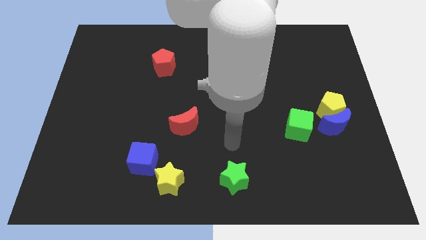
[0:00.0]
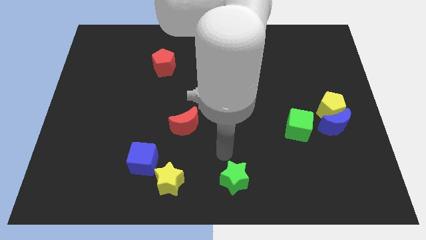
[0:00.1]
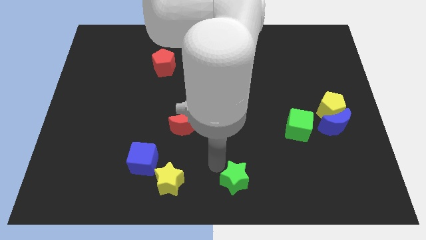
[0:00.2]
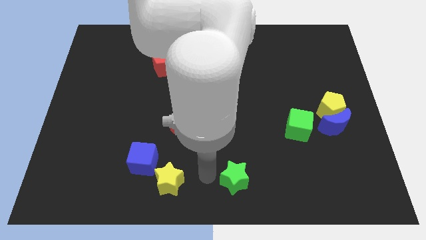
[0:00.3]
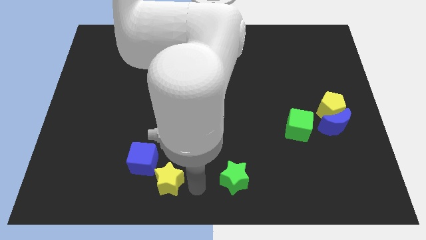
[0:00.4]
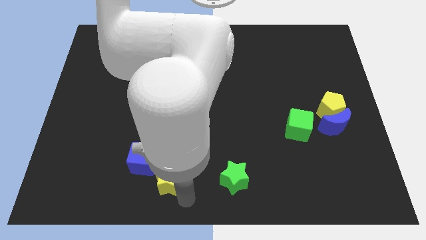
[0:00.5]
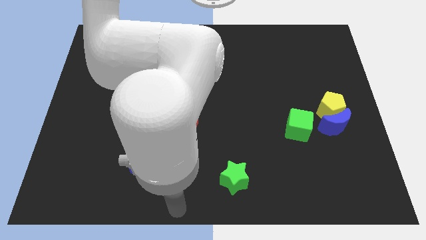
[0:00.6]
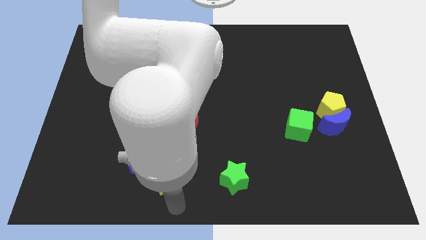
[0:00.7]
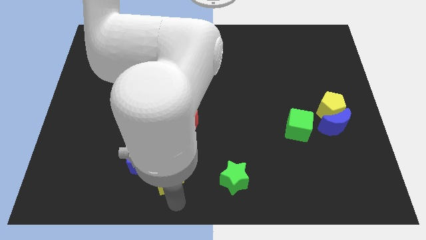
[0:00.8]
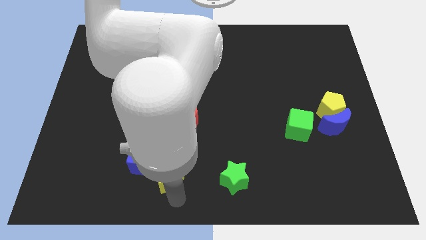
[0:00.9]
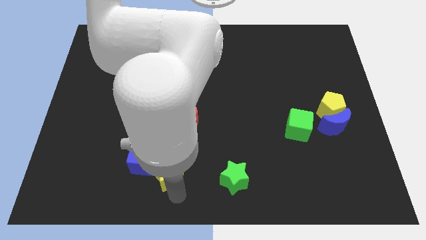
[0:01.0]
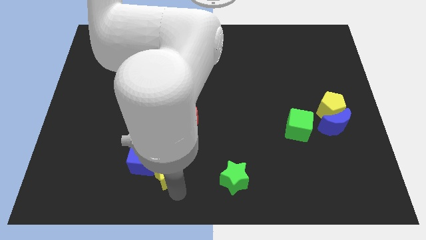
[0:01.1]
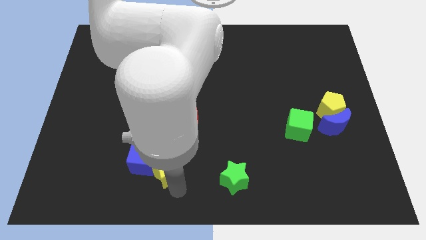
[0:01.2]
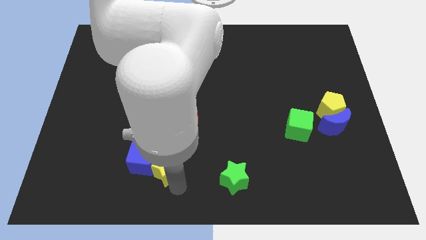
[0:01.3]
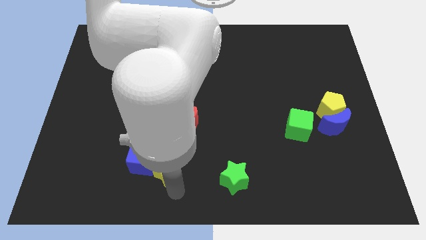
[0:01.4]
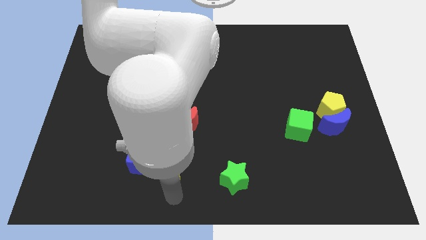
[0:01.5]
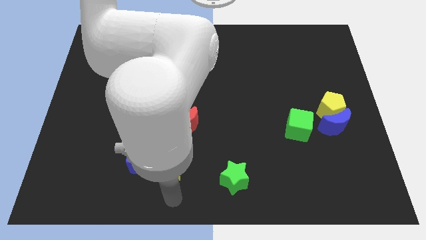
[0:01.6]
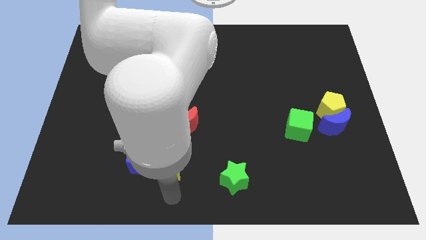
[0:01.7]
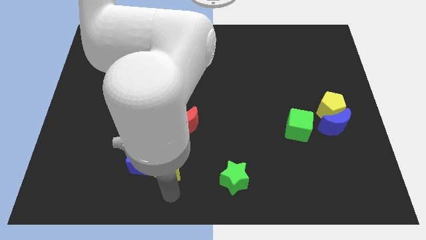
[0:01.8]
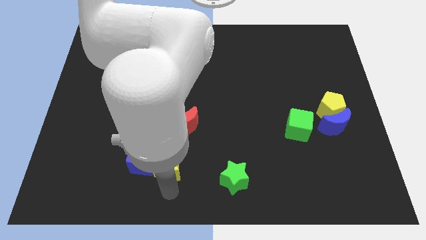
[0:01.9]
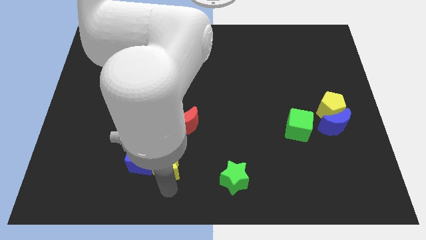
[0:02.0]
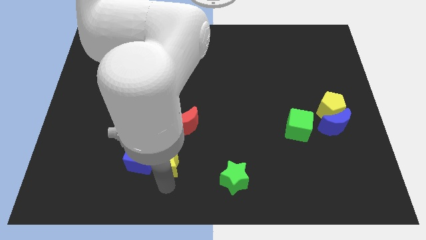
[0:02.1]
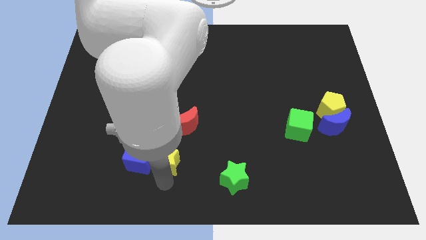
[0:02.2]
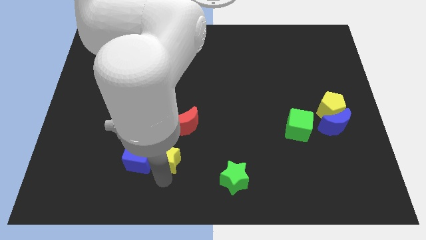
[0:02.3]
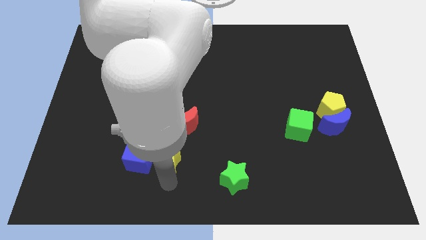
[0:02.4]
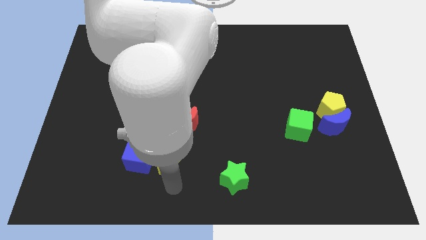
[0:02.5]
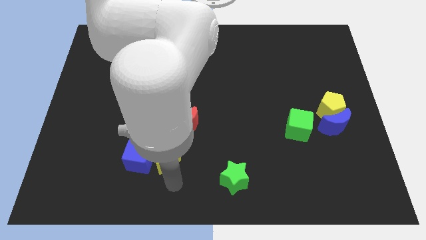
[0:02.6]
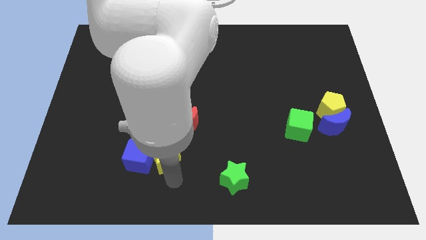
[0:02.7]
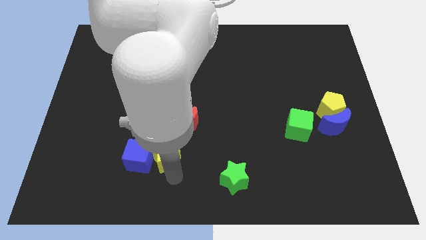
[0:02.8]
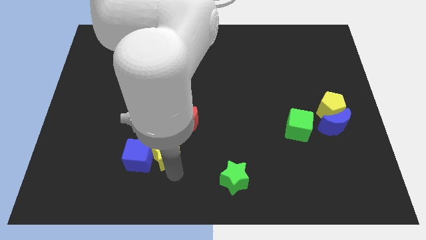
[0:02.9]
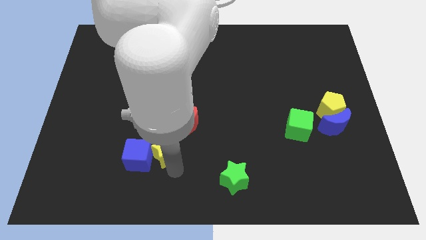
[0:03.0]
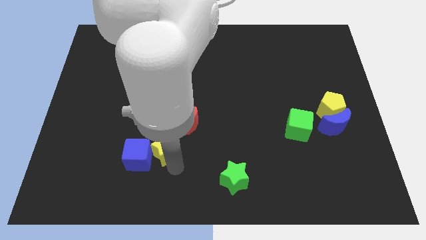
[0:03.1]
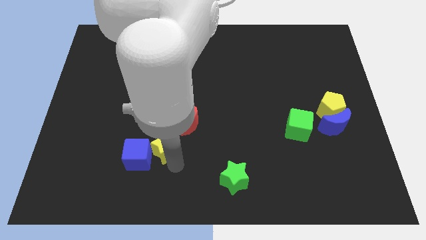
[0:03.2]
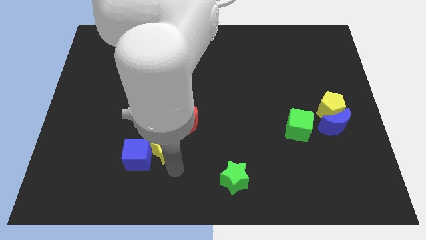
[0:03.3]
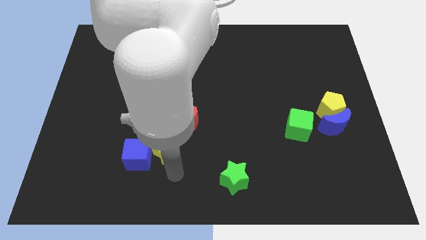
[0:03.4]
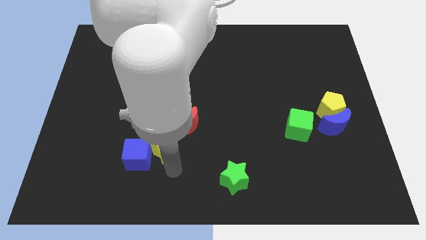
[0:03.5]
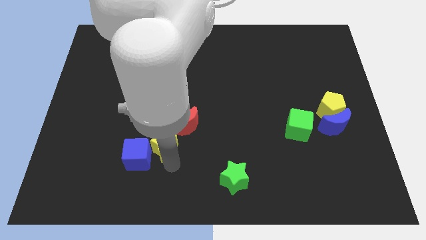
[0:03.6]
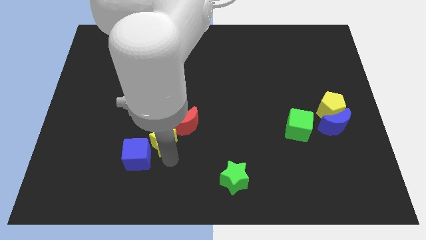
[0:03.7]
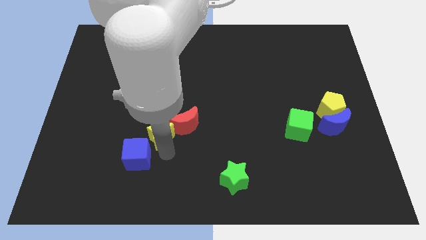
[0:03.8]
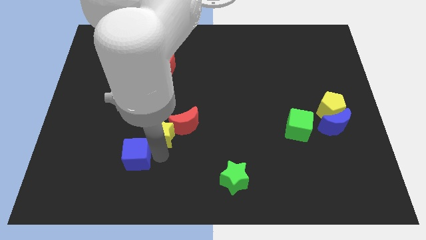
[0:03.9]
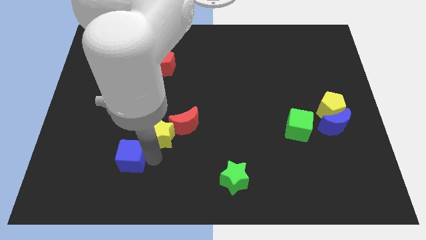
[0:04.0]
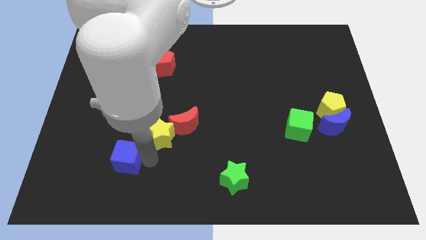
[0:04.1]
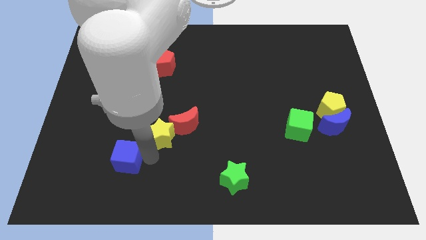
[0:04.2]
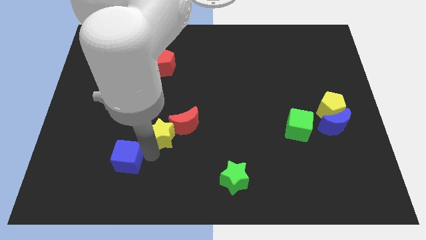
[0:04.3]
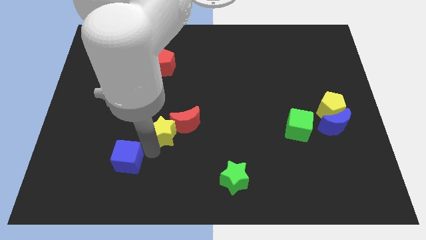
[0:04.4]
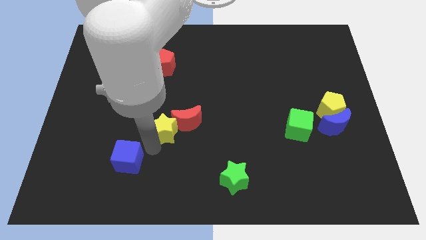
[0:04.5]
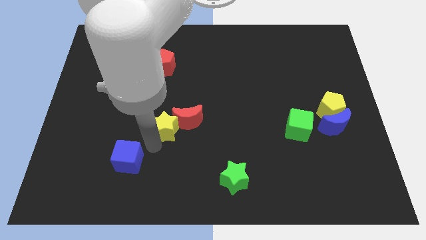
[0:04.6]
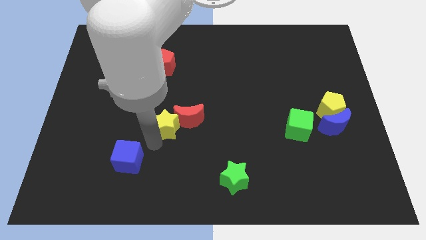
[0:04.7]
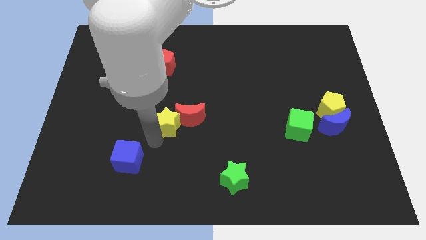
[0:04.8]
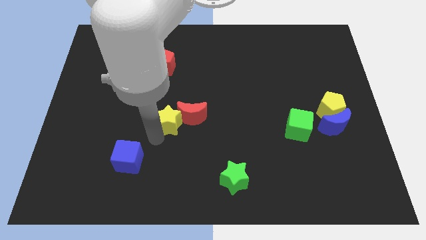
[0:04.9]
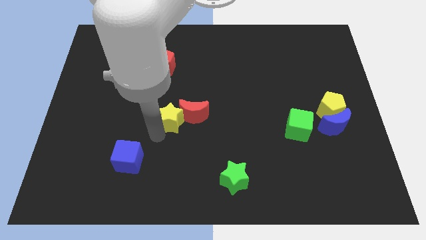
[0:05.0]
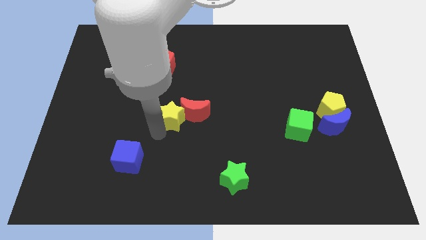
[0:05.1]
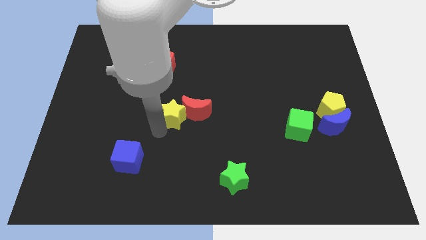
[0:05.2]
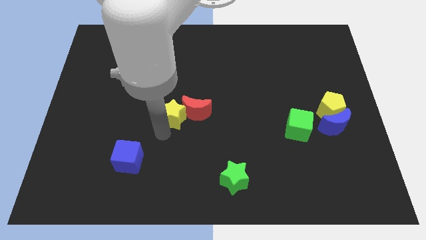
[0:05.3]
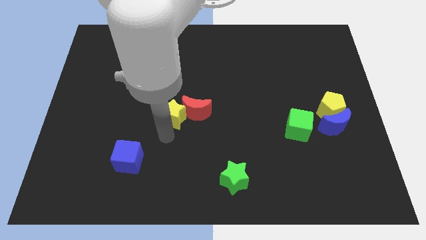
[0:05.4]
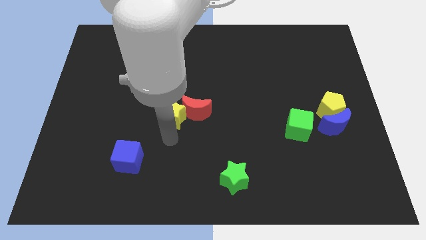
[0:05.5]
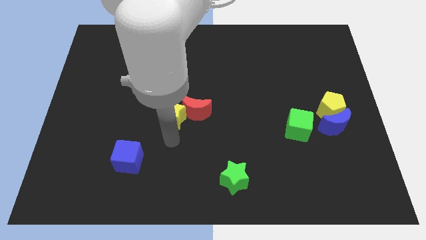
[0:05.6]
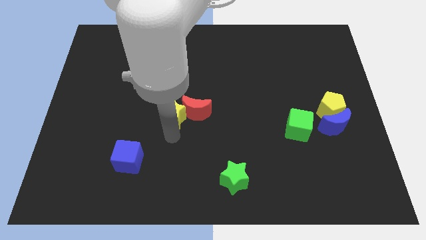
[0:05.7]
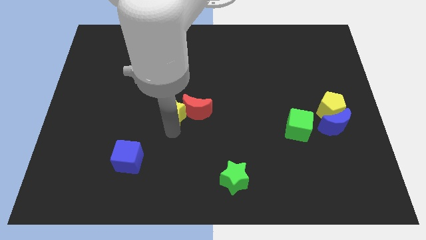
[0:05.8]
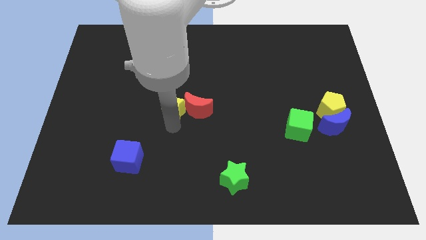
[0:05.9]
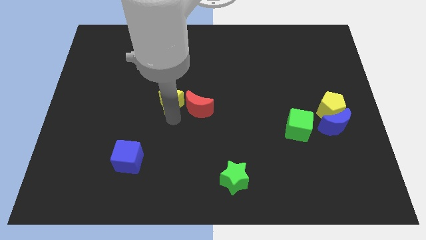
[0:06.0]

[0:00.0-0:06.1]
push the yellow star upwards

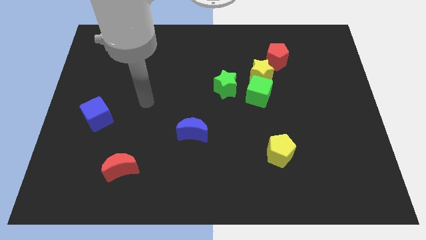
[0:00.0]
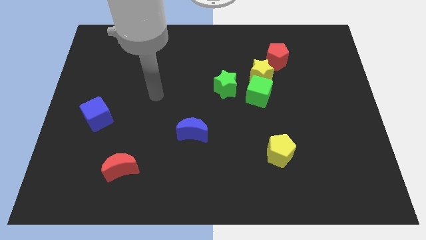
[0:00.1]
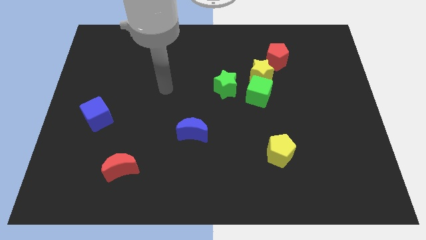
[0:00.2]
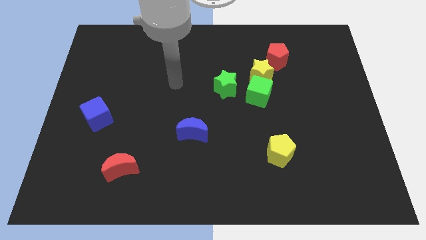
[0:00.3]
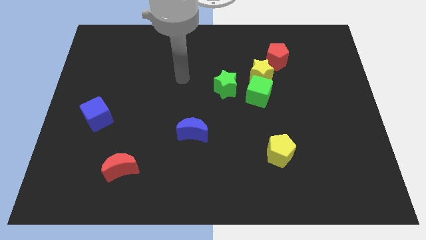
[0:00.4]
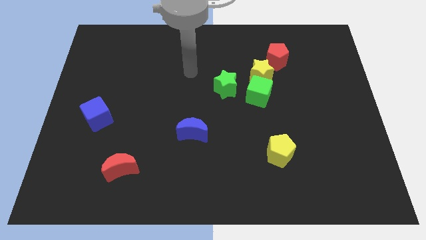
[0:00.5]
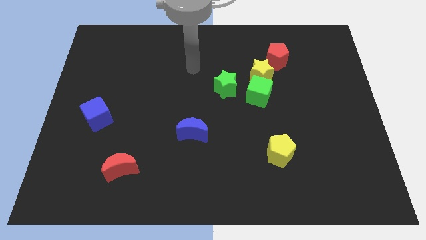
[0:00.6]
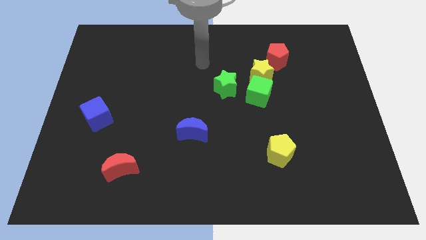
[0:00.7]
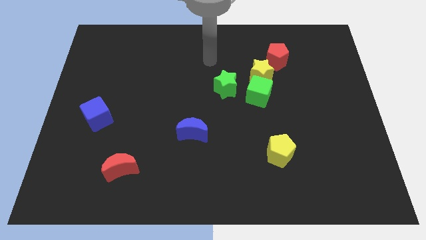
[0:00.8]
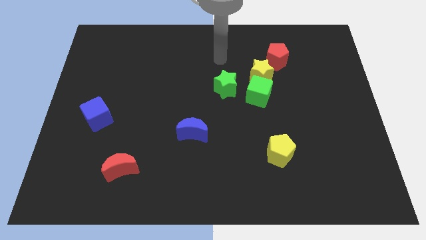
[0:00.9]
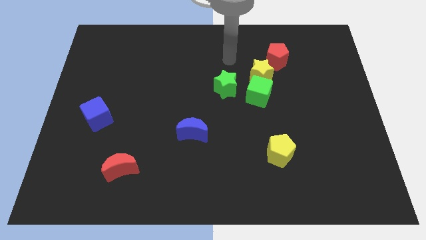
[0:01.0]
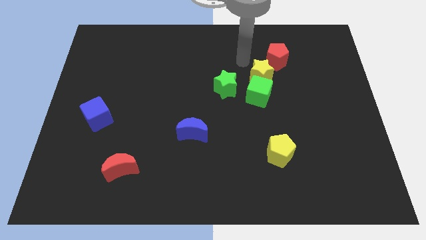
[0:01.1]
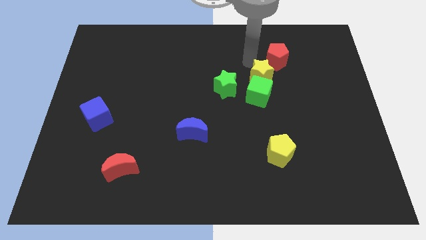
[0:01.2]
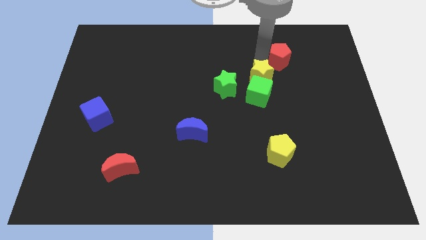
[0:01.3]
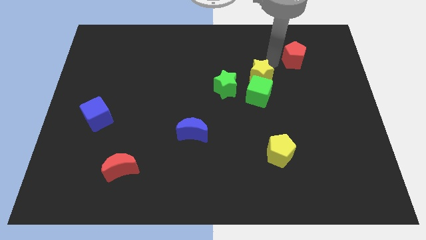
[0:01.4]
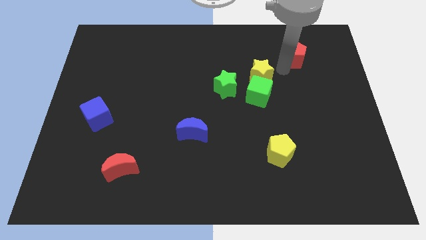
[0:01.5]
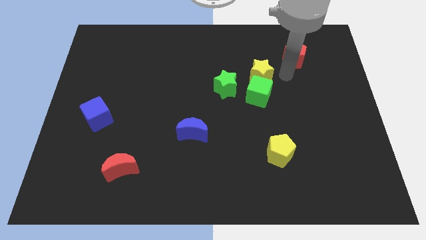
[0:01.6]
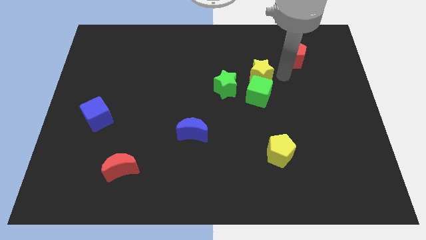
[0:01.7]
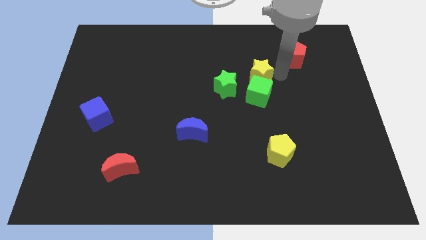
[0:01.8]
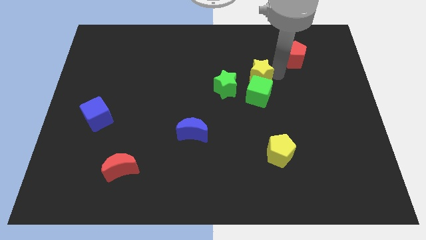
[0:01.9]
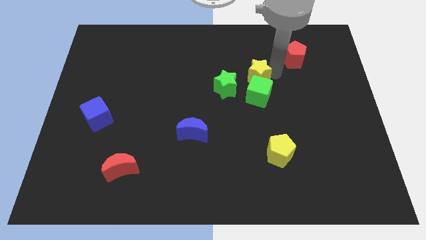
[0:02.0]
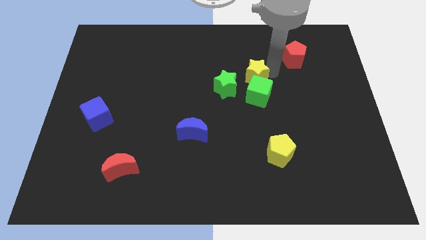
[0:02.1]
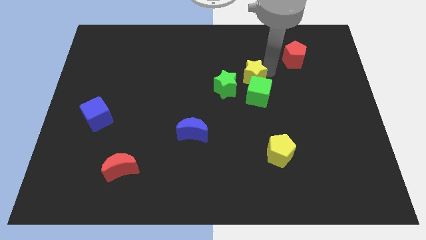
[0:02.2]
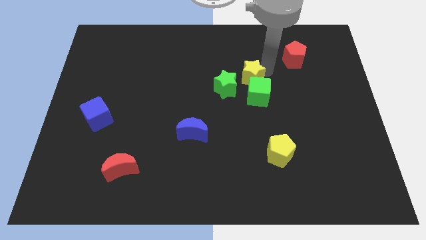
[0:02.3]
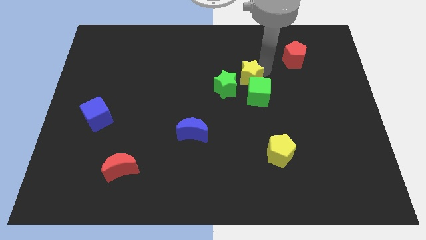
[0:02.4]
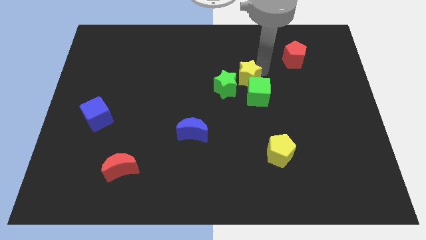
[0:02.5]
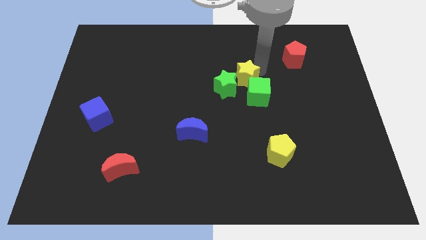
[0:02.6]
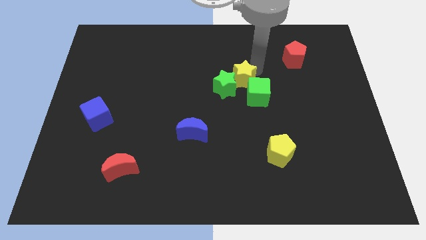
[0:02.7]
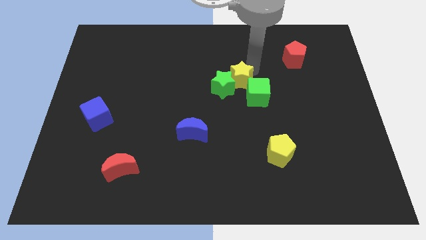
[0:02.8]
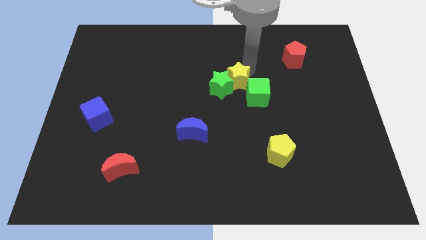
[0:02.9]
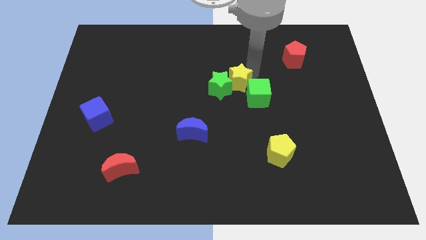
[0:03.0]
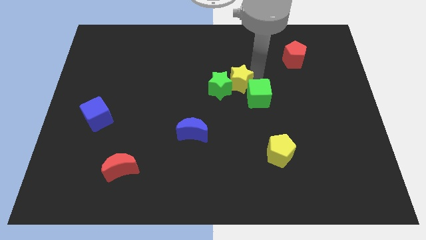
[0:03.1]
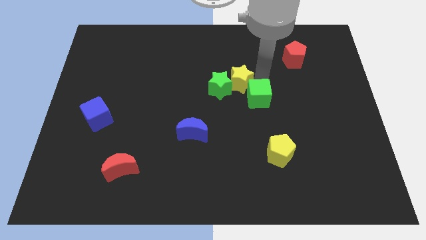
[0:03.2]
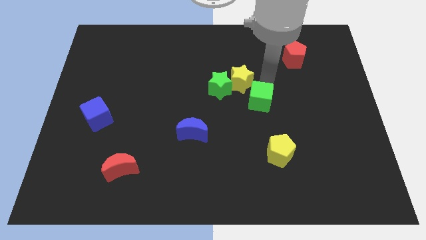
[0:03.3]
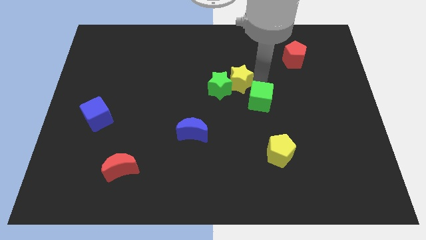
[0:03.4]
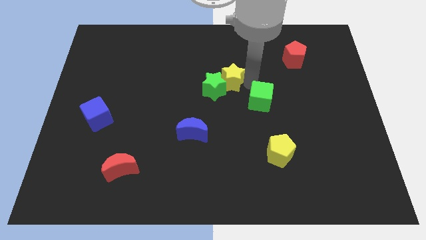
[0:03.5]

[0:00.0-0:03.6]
slightly push the yellow star left
